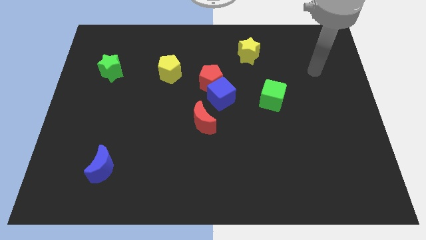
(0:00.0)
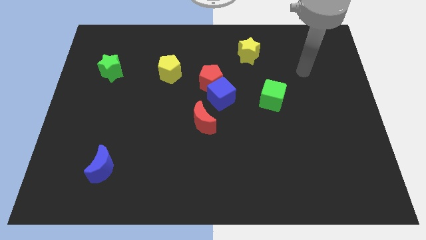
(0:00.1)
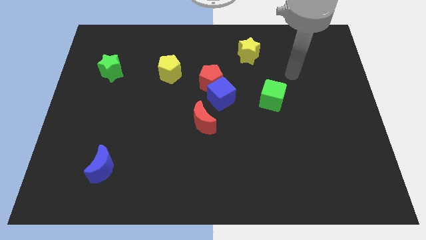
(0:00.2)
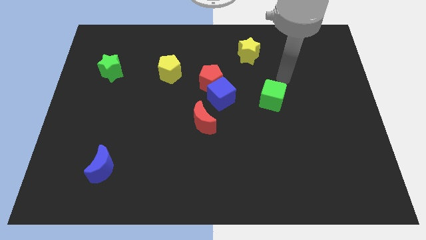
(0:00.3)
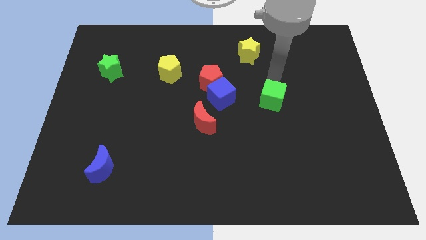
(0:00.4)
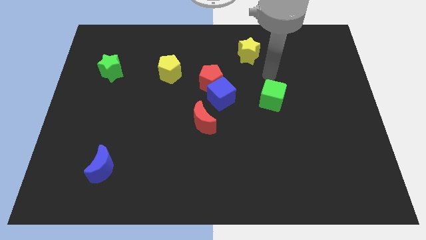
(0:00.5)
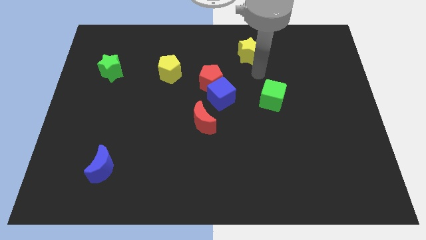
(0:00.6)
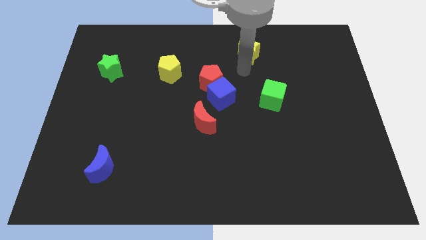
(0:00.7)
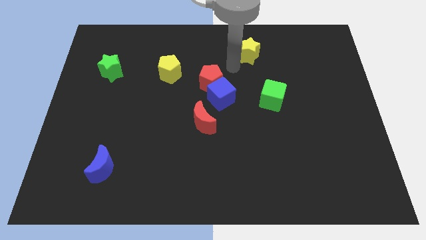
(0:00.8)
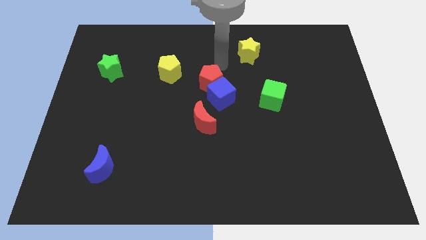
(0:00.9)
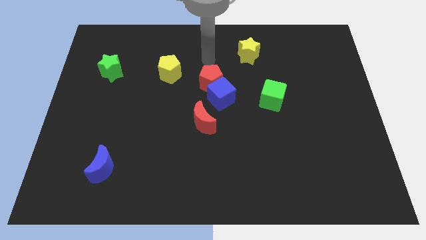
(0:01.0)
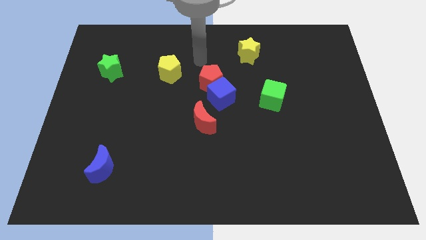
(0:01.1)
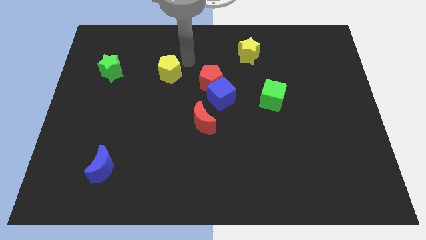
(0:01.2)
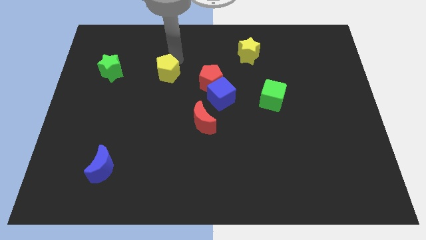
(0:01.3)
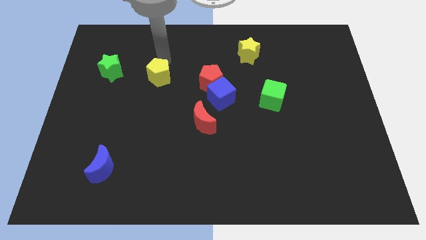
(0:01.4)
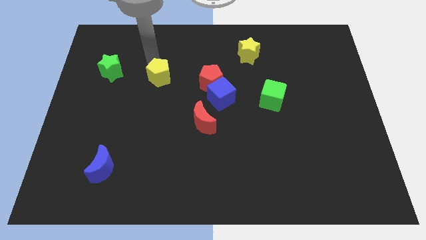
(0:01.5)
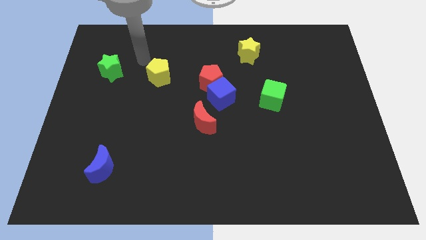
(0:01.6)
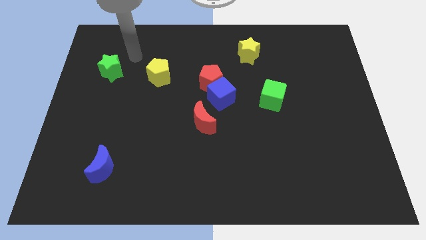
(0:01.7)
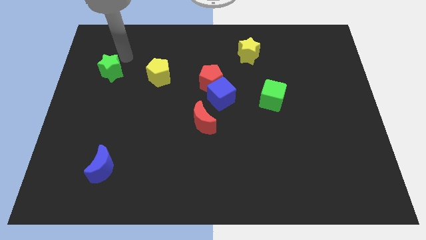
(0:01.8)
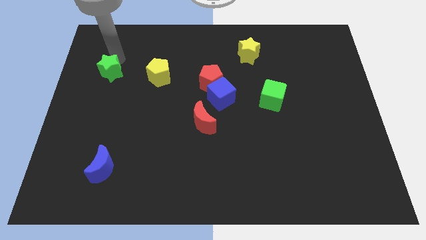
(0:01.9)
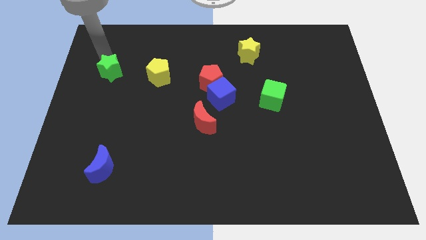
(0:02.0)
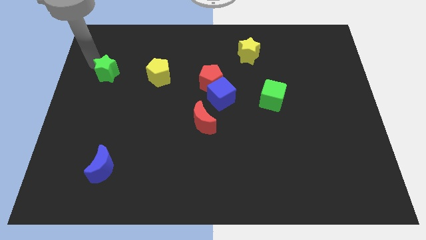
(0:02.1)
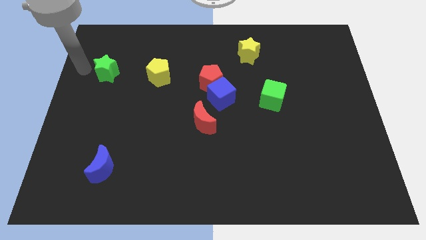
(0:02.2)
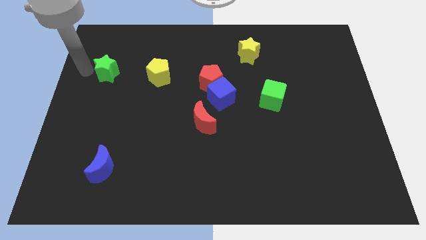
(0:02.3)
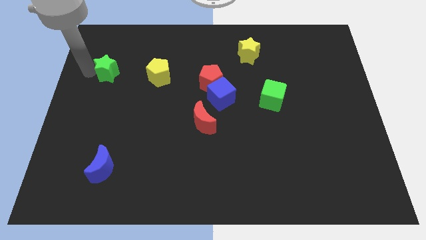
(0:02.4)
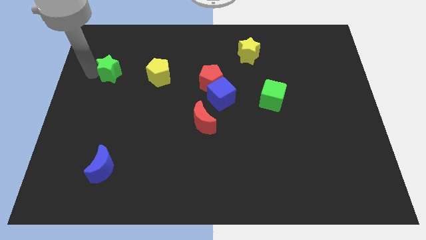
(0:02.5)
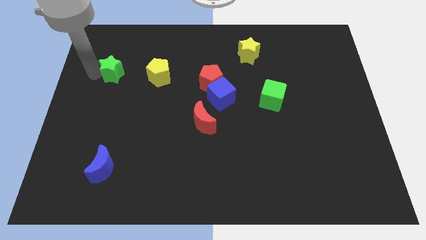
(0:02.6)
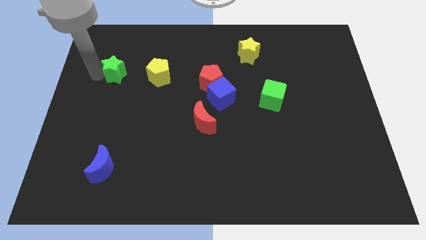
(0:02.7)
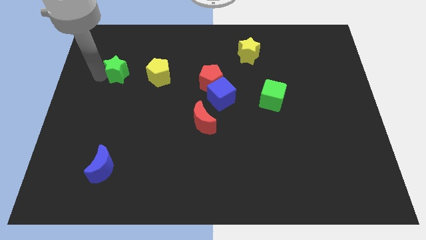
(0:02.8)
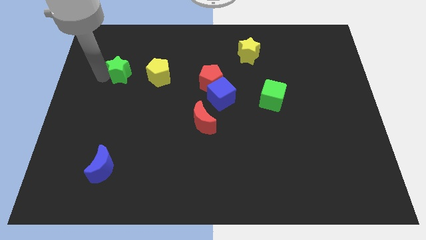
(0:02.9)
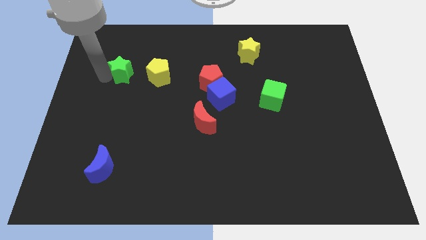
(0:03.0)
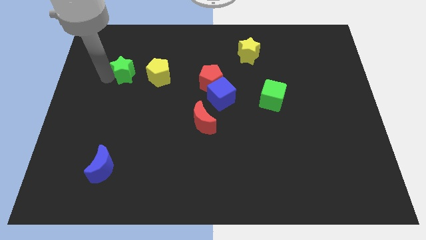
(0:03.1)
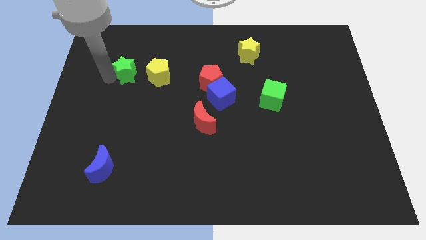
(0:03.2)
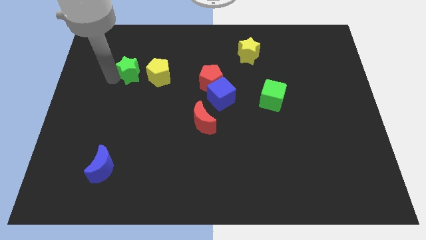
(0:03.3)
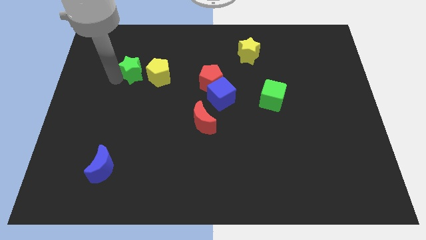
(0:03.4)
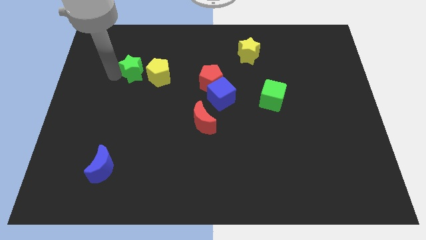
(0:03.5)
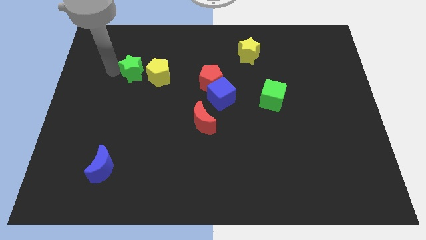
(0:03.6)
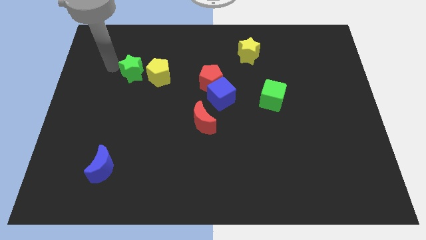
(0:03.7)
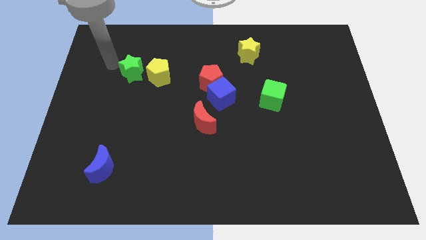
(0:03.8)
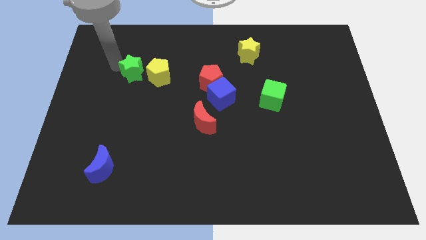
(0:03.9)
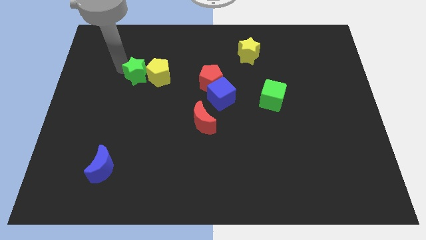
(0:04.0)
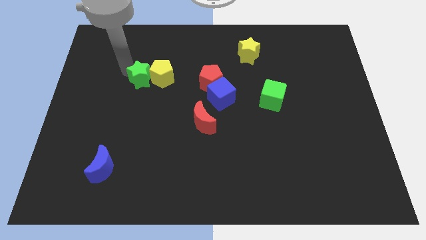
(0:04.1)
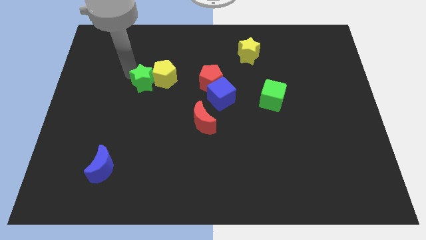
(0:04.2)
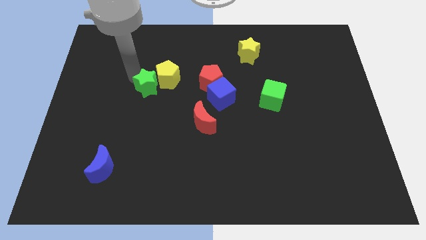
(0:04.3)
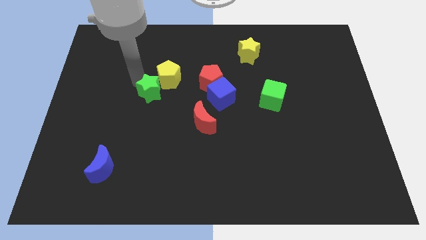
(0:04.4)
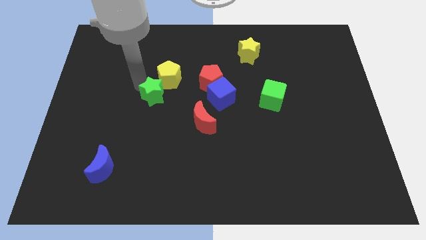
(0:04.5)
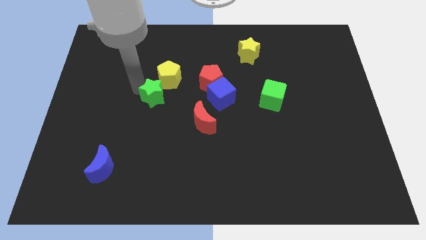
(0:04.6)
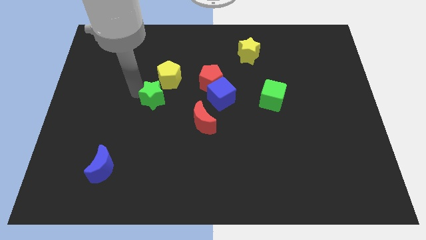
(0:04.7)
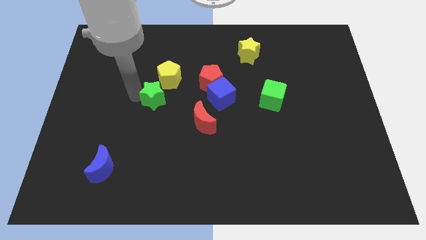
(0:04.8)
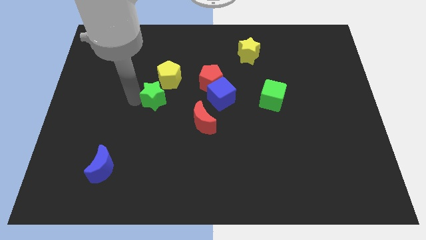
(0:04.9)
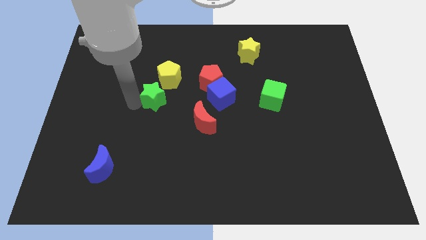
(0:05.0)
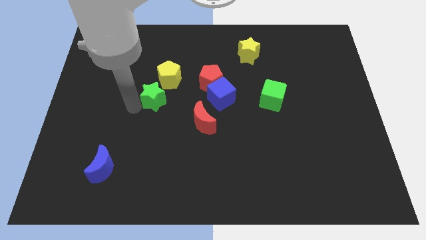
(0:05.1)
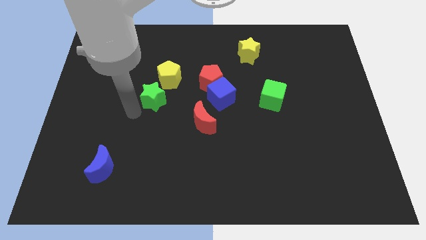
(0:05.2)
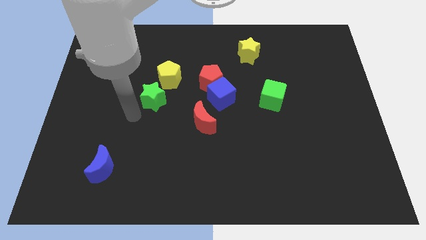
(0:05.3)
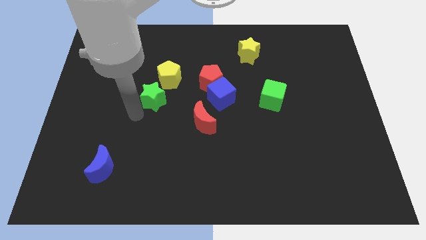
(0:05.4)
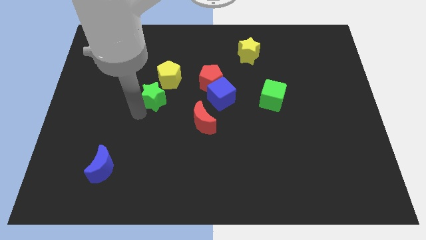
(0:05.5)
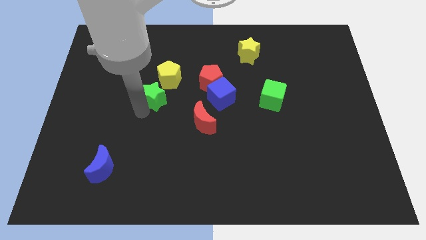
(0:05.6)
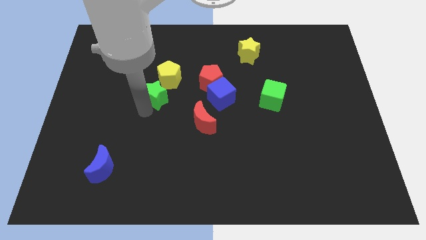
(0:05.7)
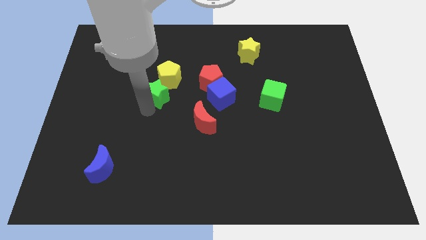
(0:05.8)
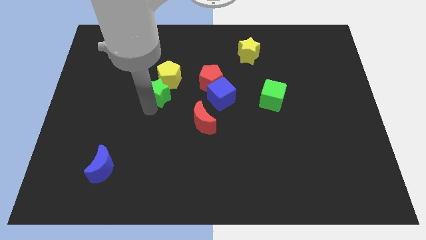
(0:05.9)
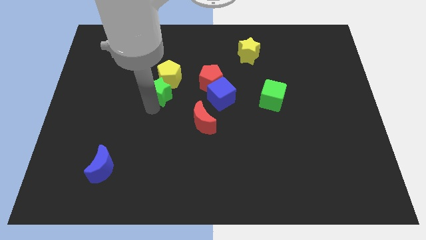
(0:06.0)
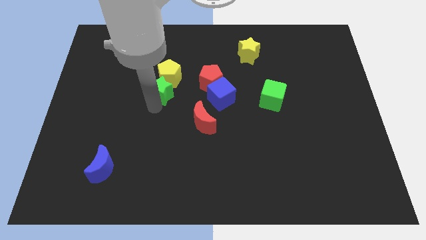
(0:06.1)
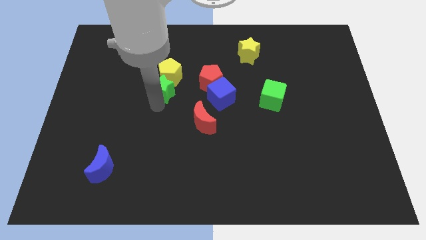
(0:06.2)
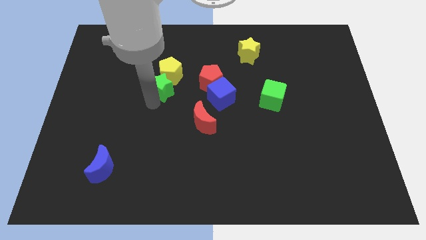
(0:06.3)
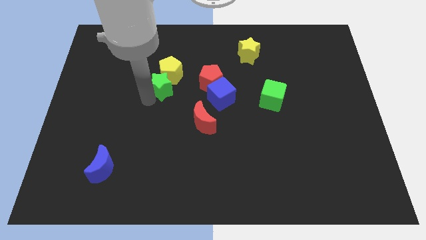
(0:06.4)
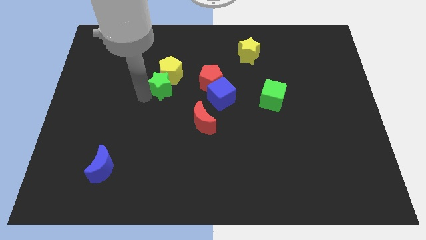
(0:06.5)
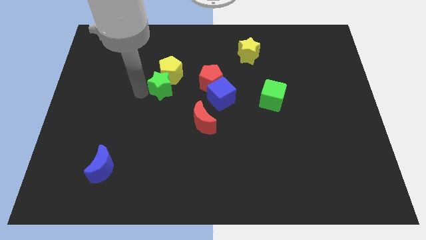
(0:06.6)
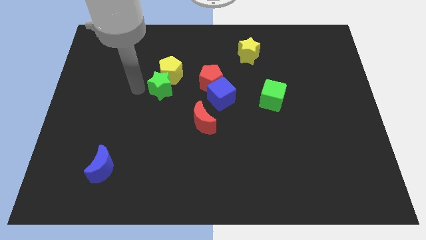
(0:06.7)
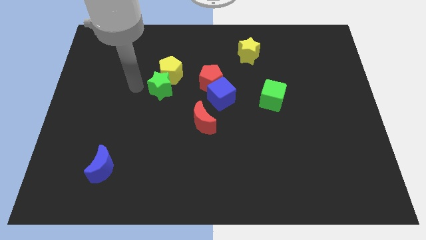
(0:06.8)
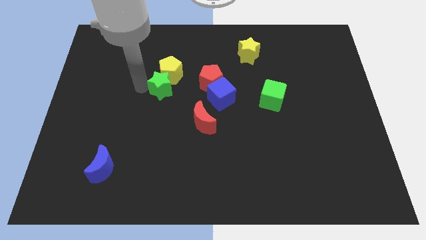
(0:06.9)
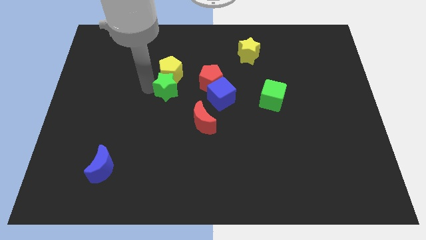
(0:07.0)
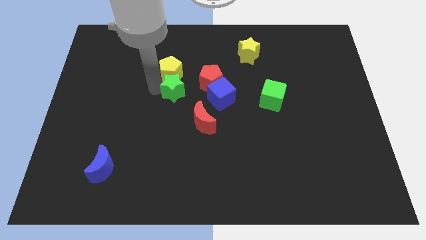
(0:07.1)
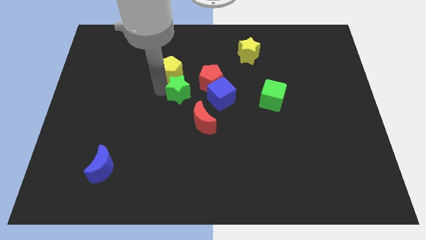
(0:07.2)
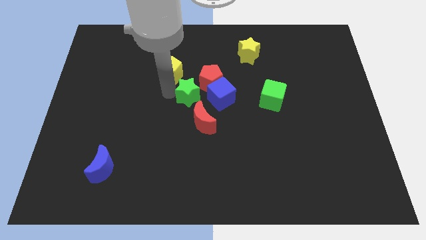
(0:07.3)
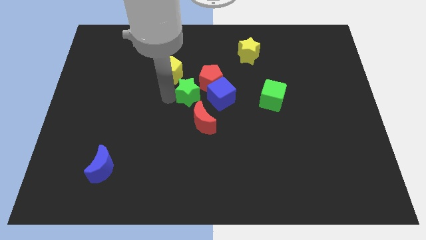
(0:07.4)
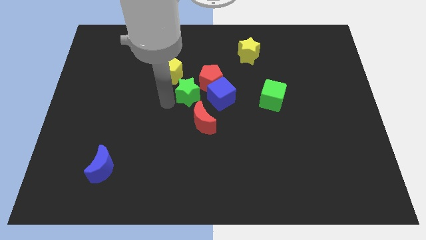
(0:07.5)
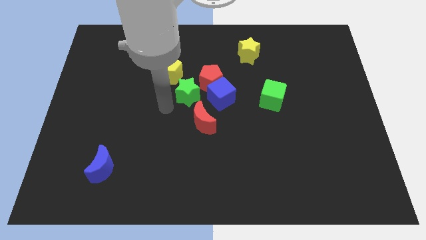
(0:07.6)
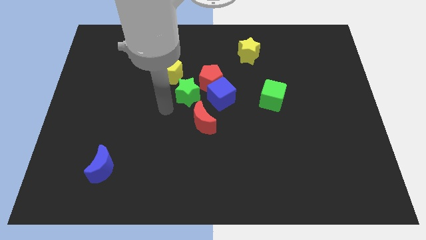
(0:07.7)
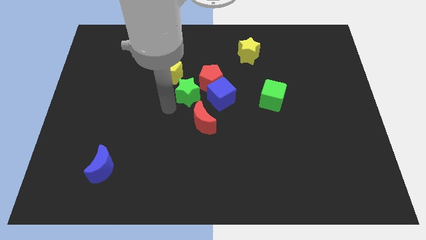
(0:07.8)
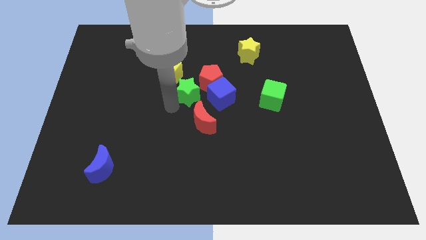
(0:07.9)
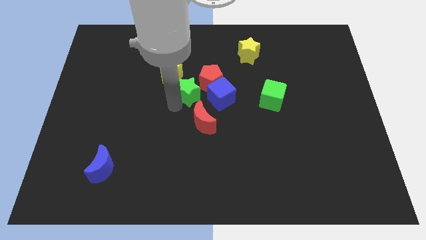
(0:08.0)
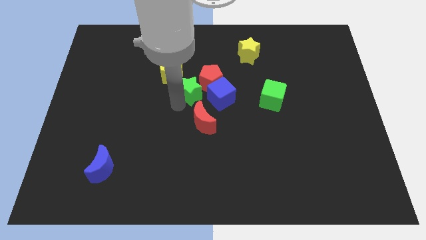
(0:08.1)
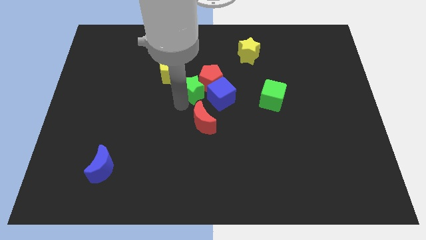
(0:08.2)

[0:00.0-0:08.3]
push the green star close to the red pentagon
